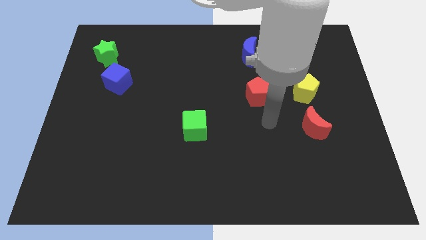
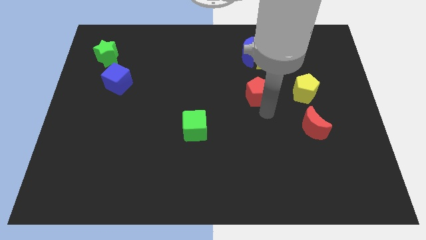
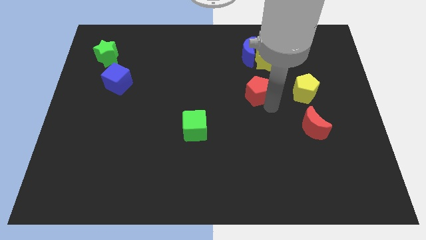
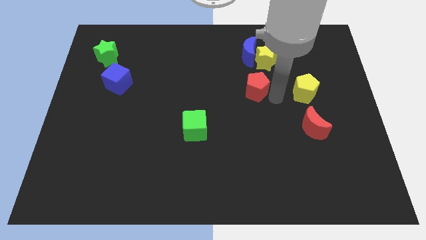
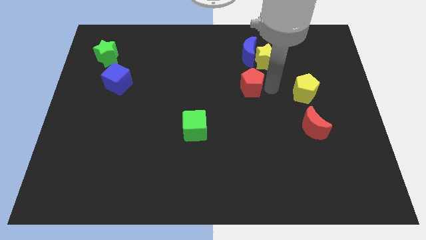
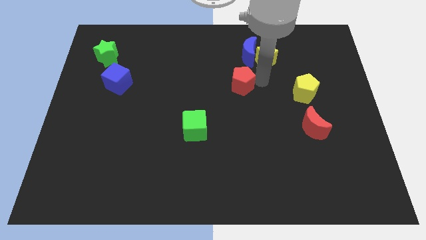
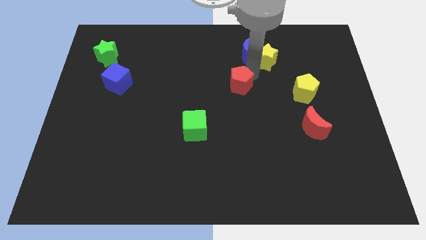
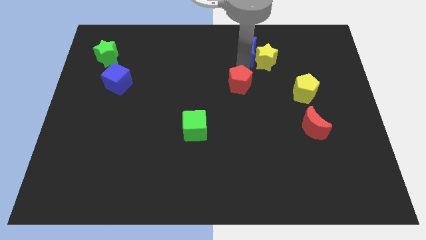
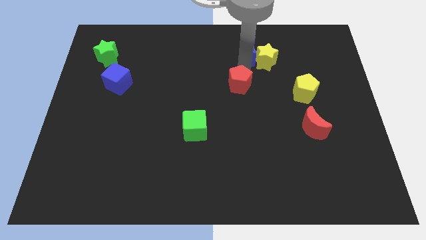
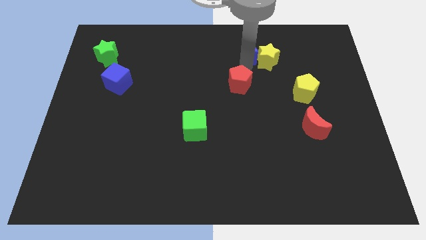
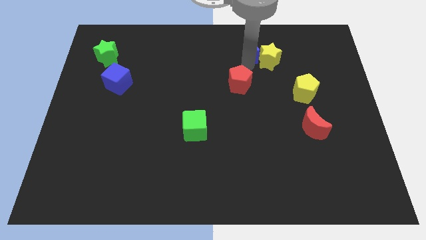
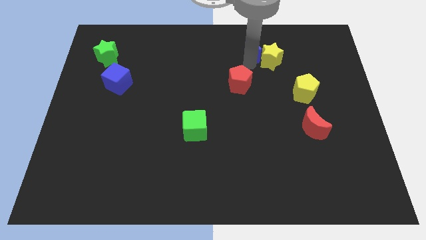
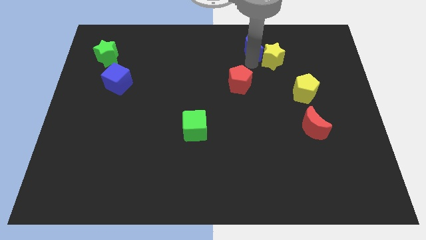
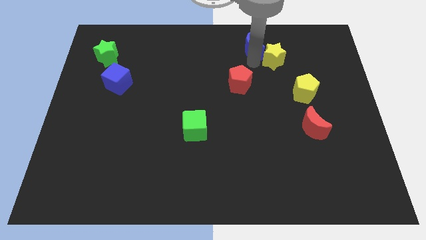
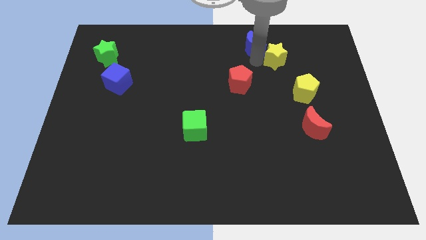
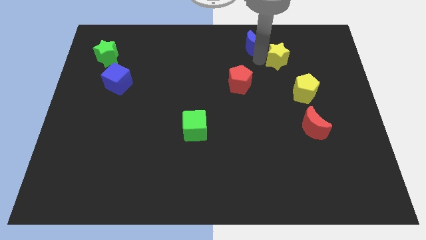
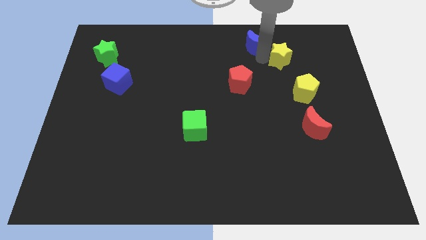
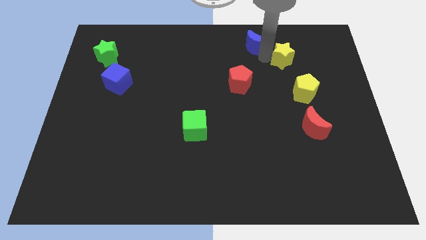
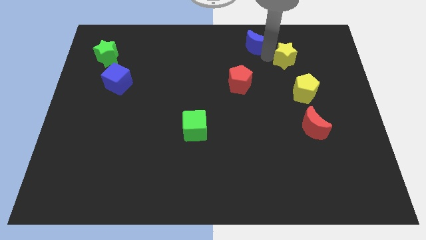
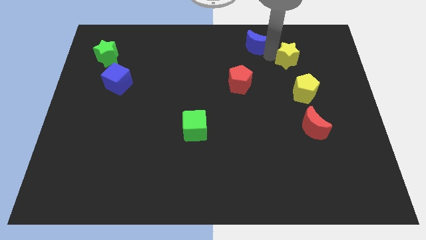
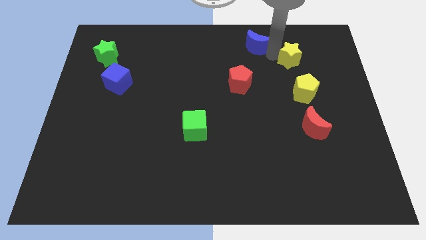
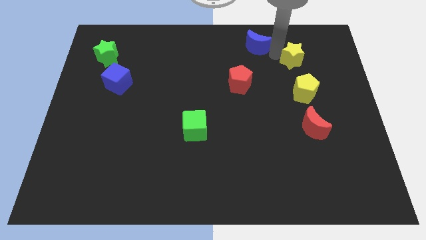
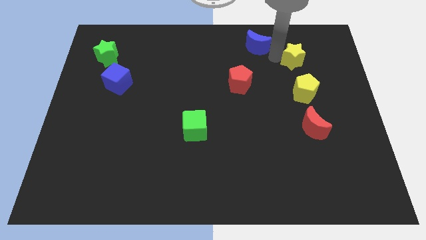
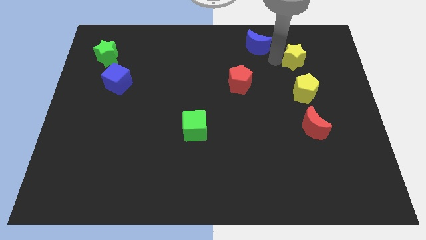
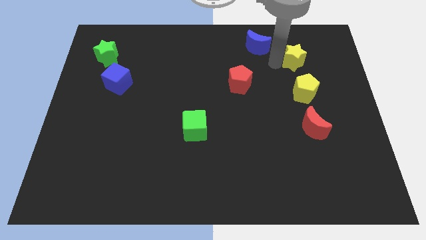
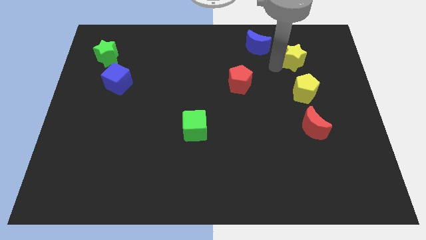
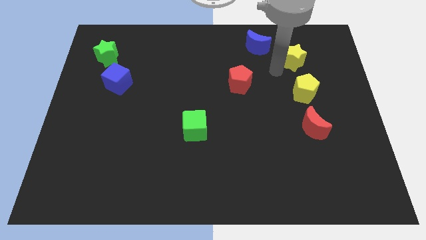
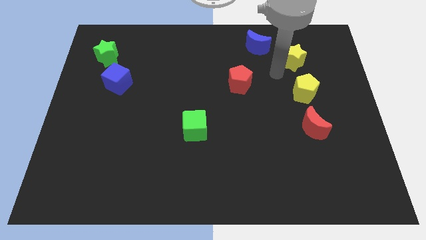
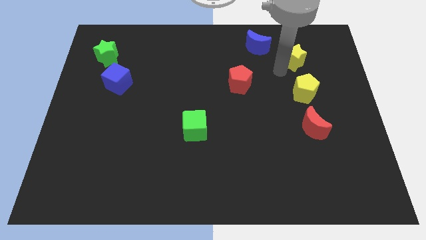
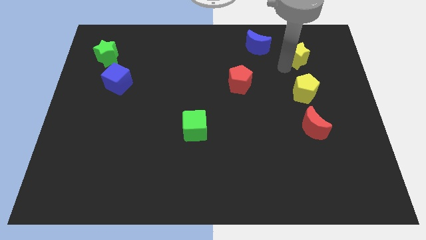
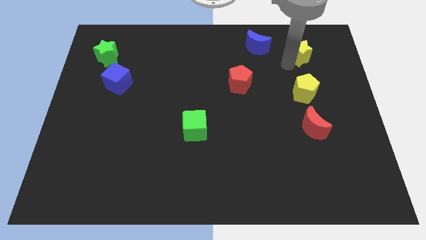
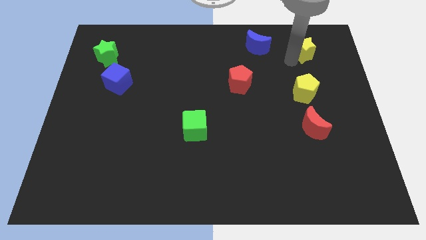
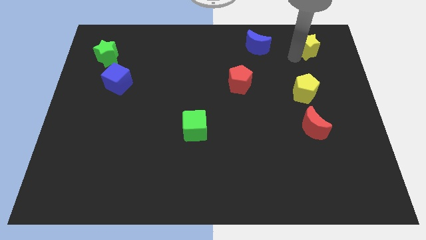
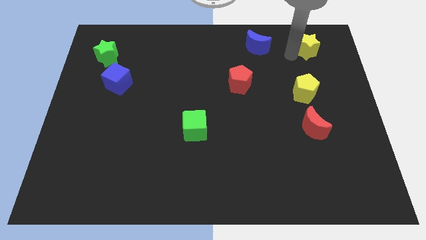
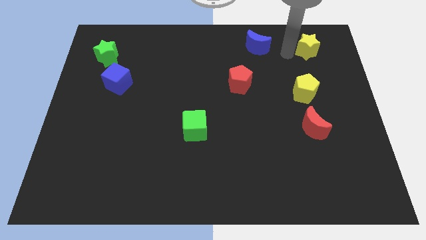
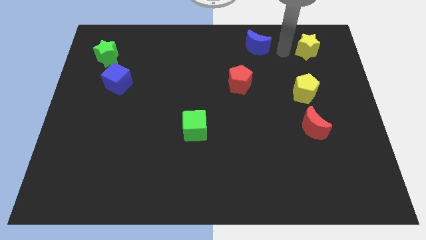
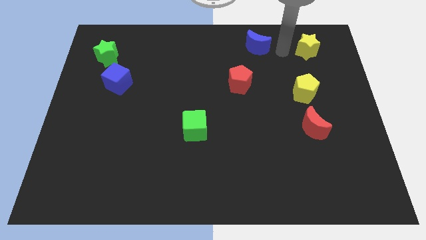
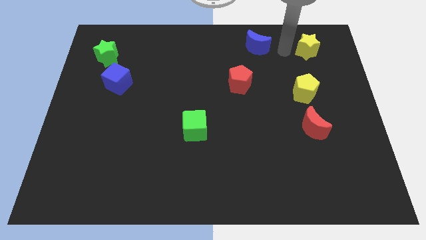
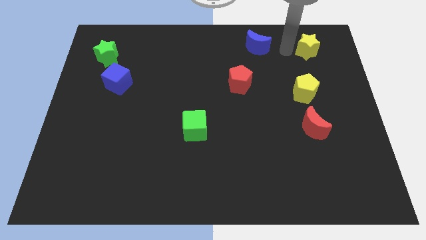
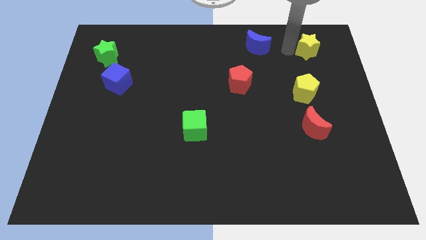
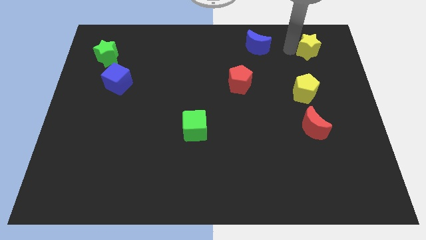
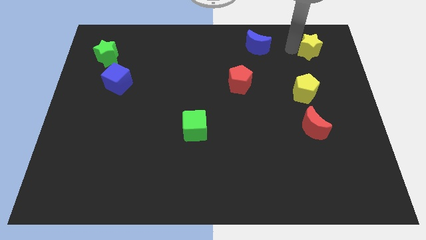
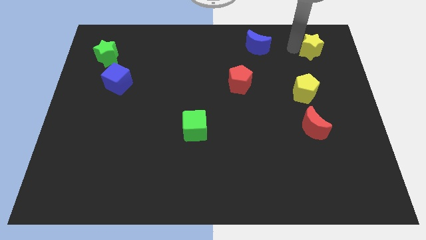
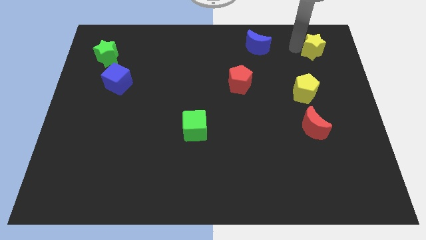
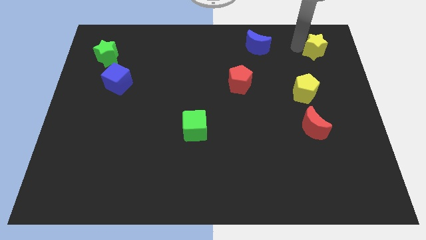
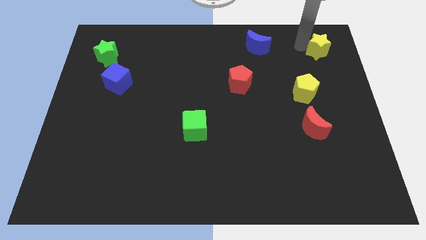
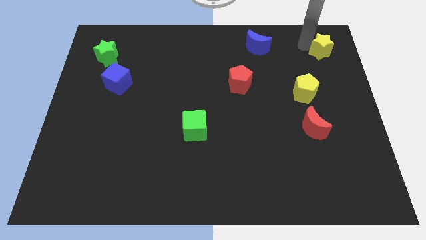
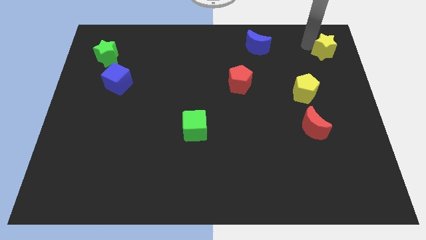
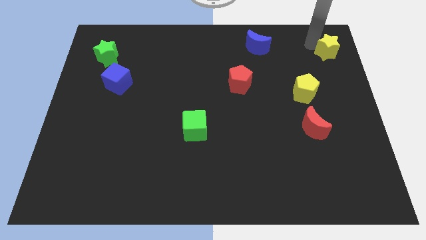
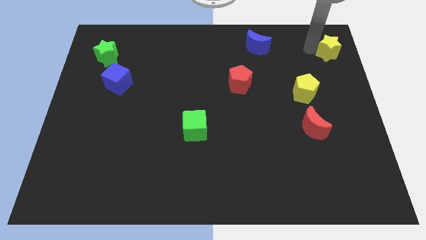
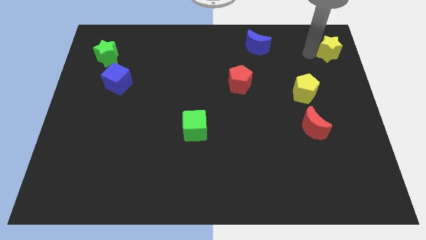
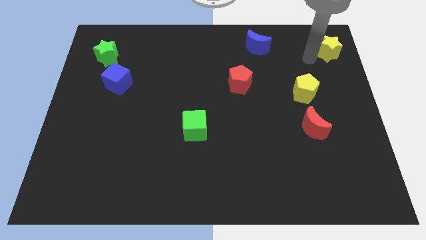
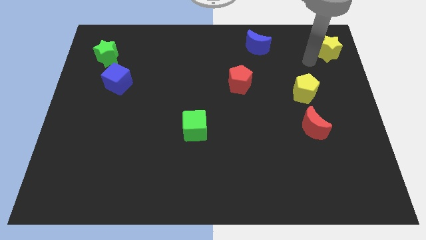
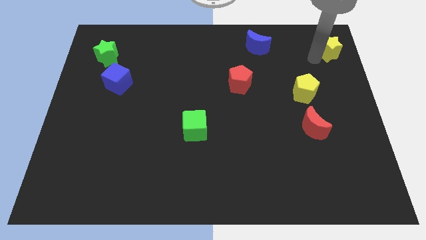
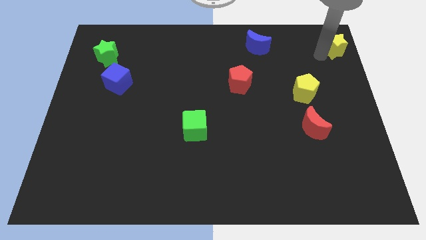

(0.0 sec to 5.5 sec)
move the yellow star to the upper right corner

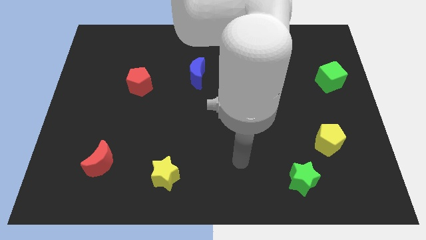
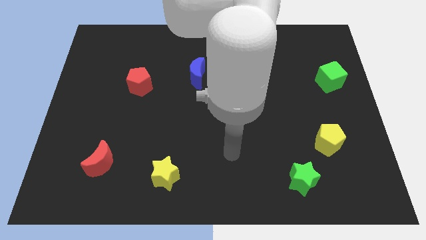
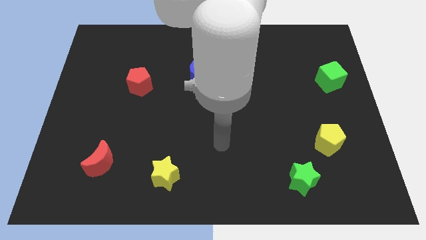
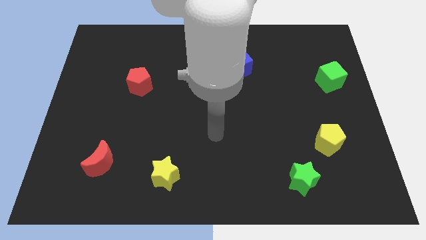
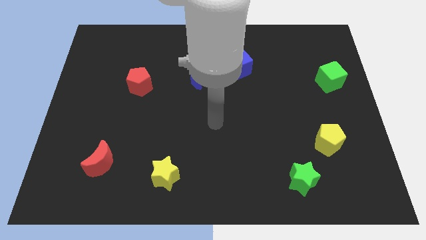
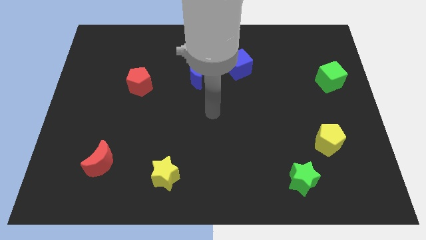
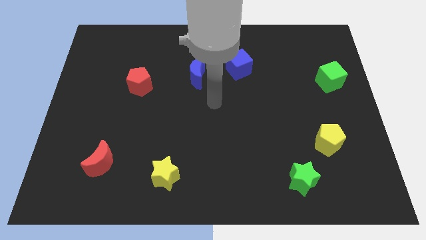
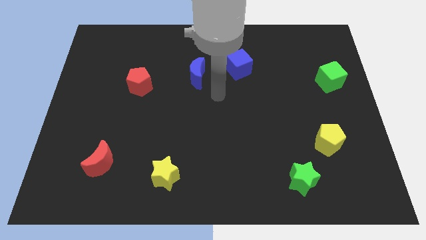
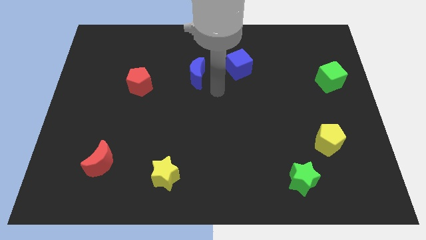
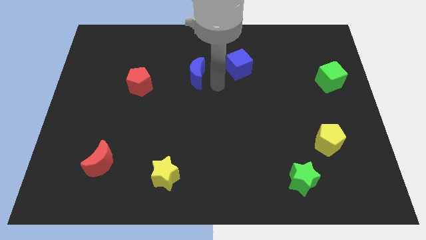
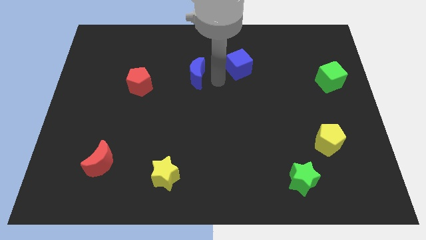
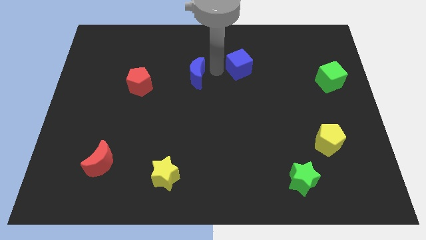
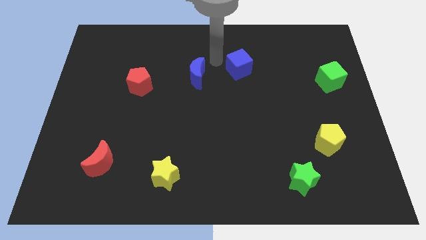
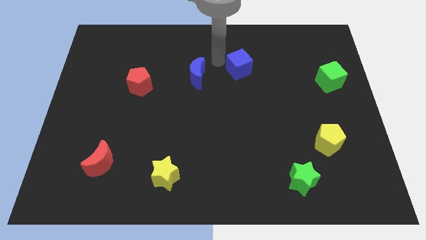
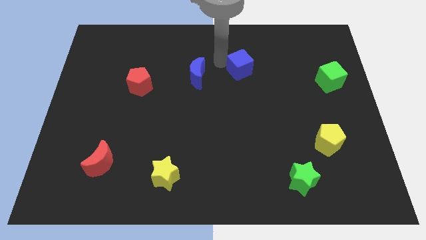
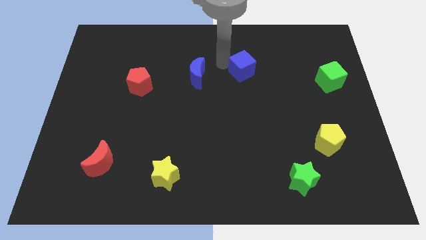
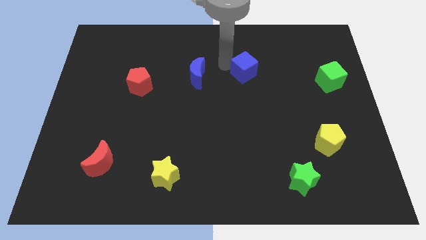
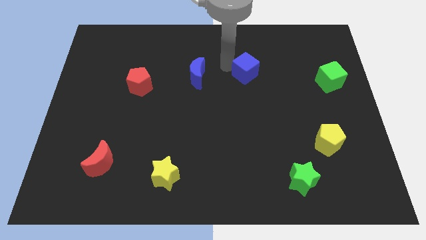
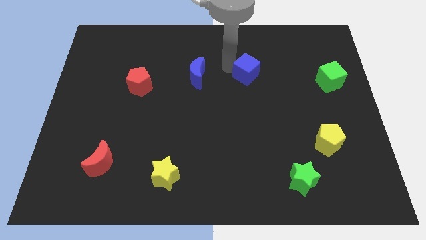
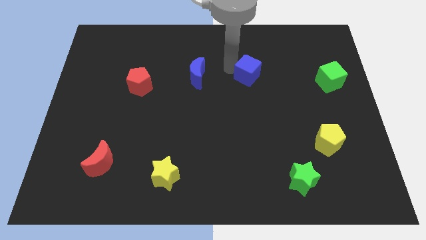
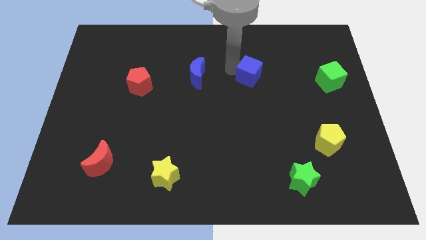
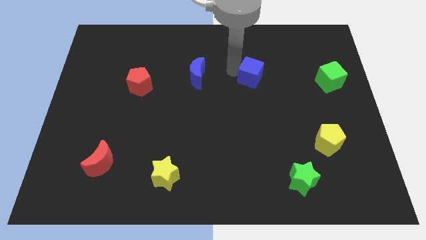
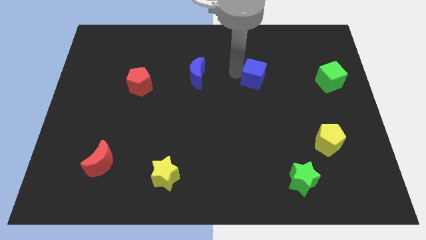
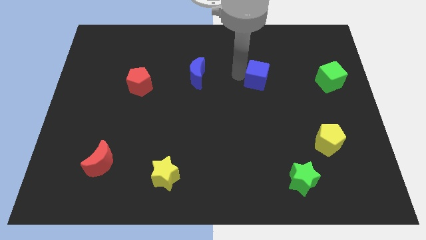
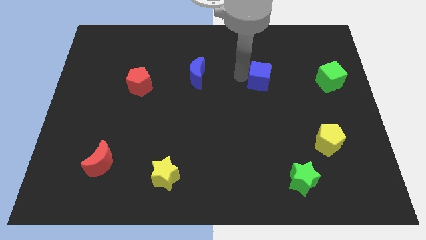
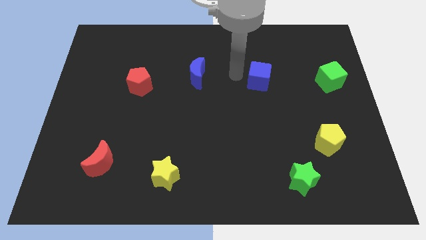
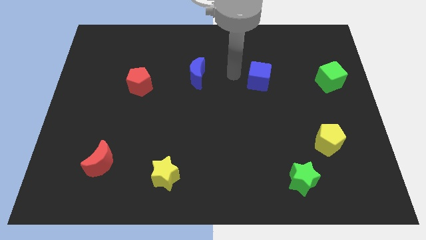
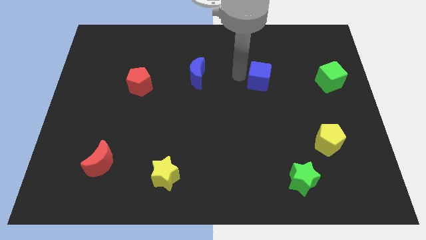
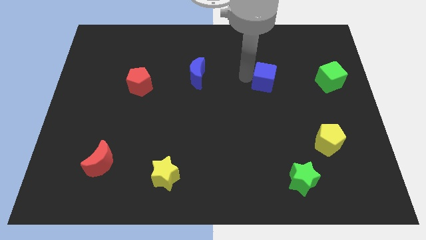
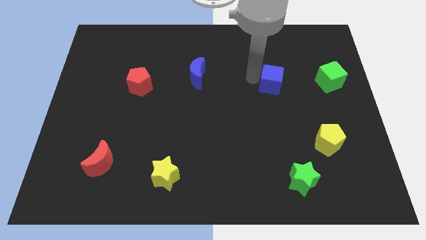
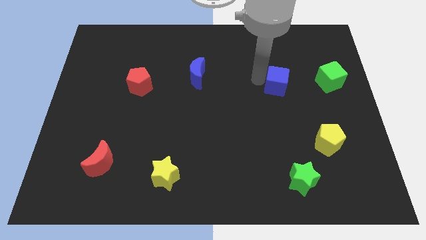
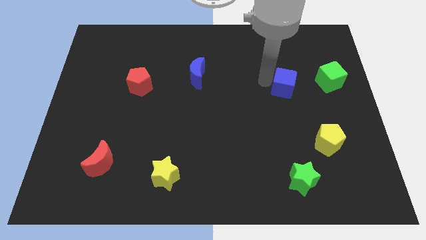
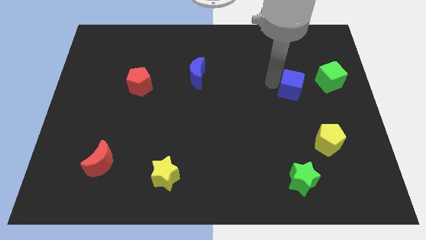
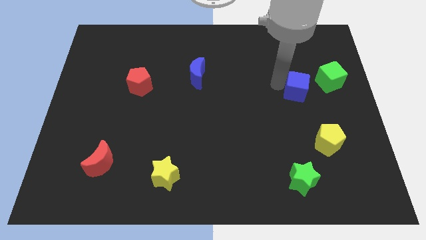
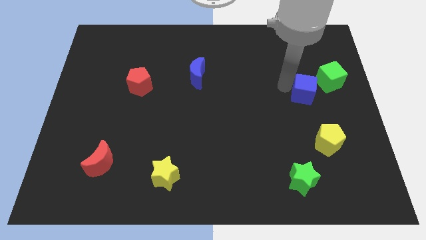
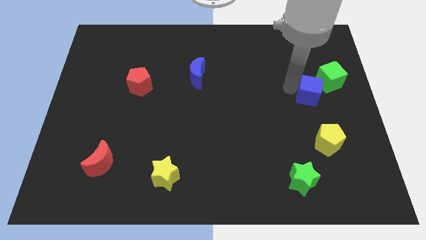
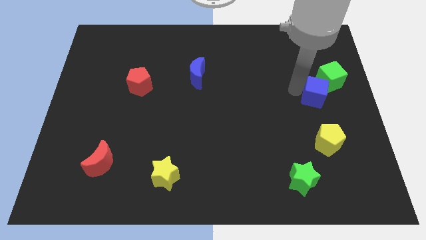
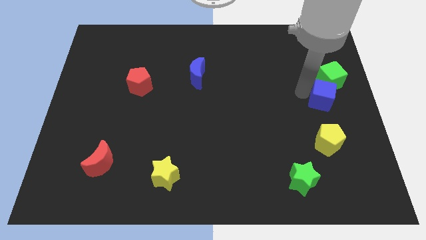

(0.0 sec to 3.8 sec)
move the blue cube to the right side of the board
